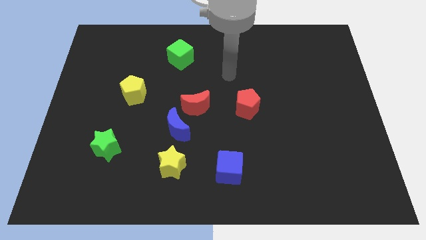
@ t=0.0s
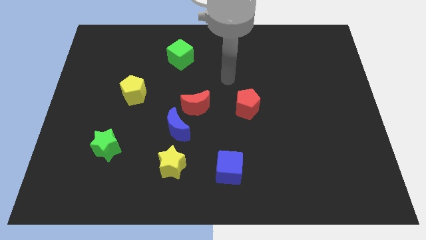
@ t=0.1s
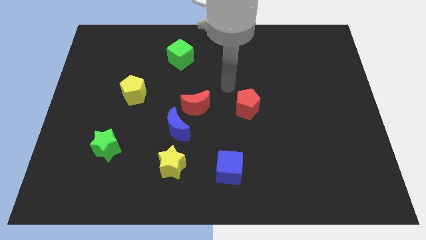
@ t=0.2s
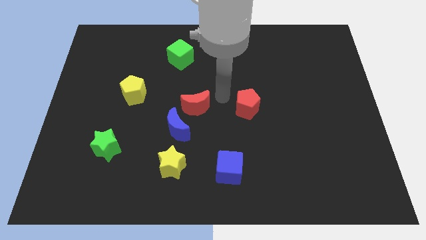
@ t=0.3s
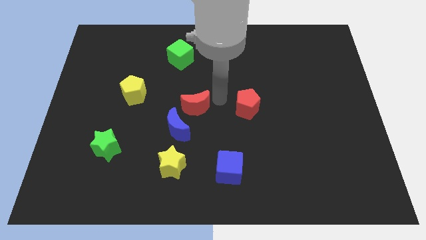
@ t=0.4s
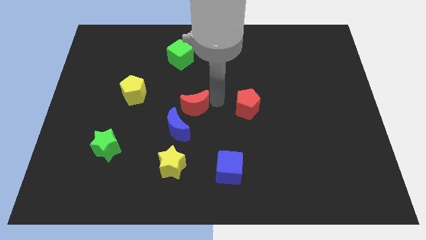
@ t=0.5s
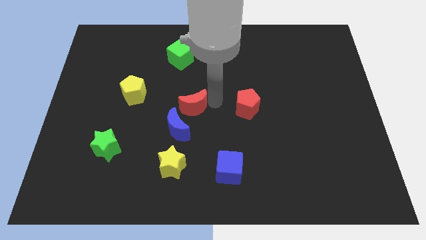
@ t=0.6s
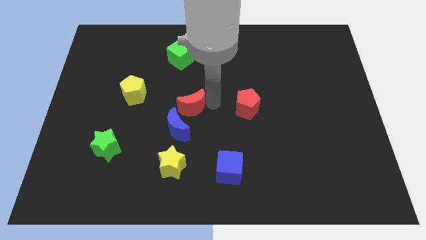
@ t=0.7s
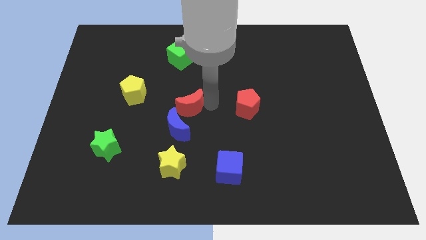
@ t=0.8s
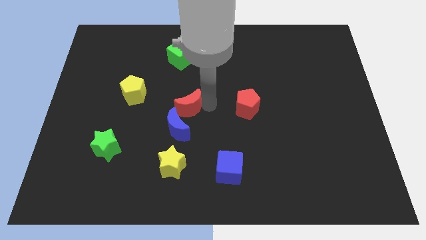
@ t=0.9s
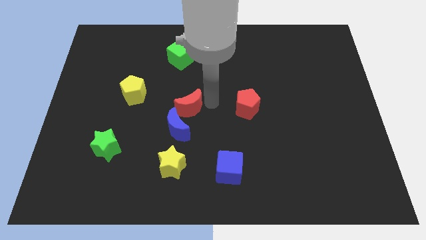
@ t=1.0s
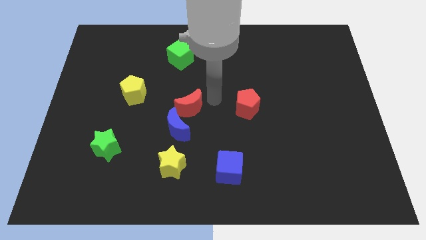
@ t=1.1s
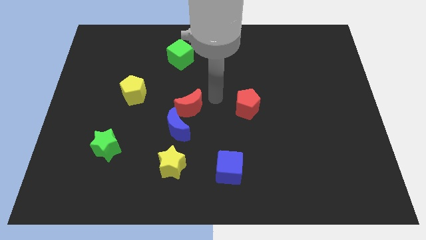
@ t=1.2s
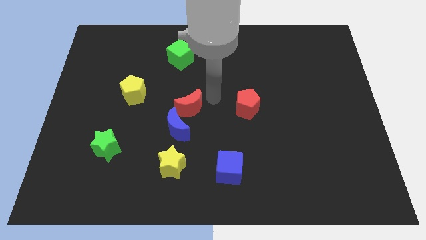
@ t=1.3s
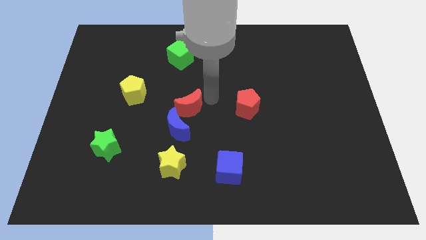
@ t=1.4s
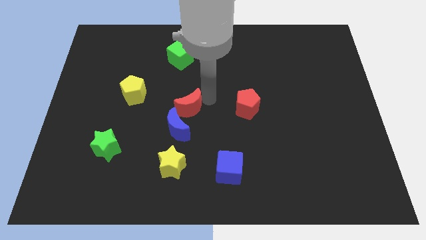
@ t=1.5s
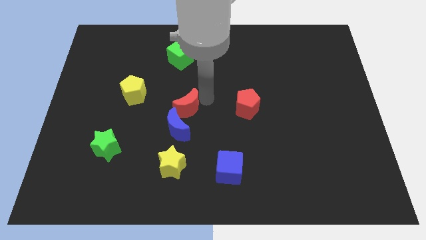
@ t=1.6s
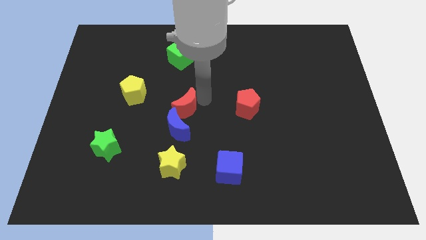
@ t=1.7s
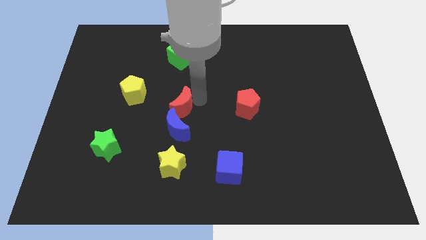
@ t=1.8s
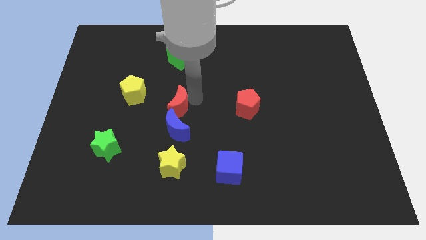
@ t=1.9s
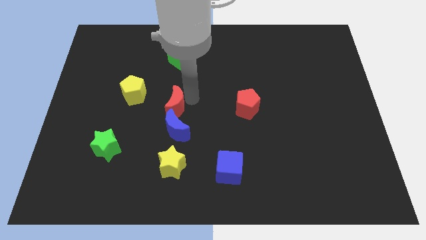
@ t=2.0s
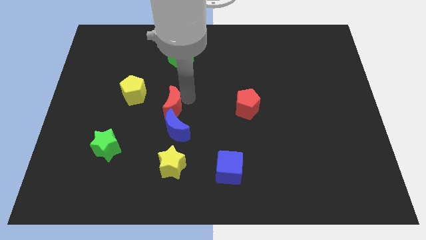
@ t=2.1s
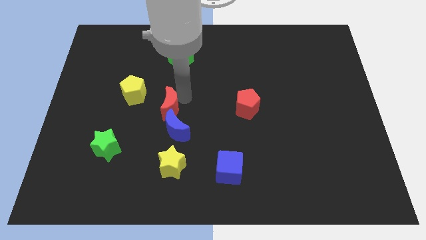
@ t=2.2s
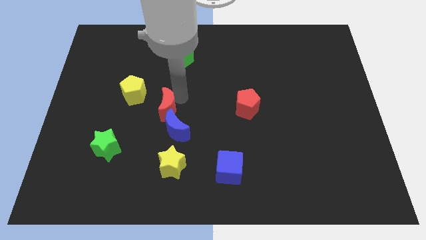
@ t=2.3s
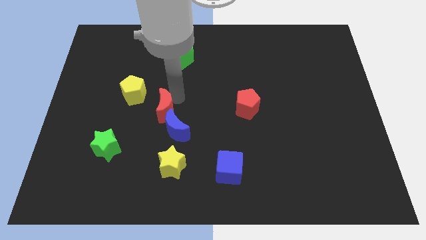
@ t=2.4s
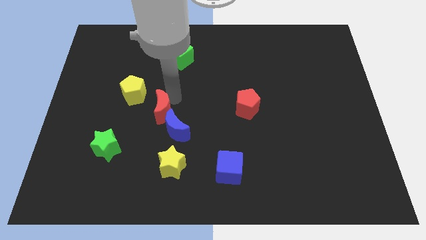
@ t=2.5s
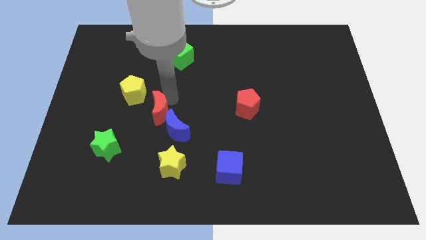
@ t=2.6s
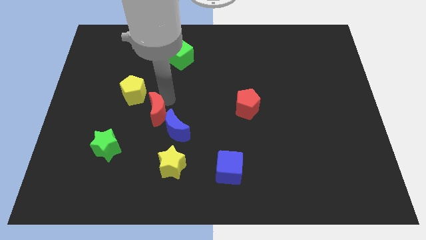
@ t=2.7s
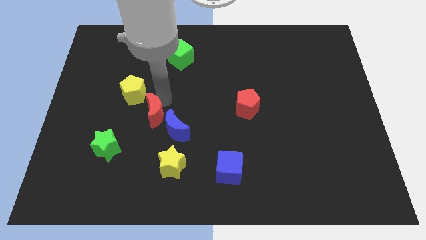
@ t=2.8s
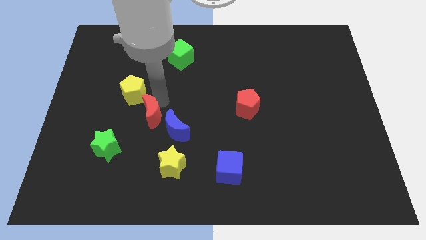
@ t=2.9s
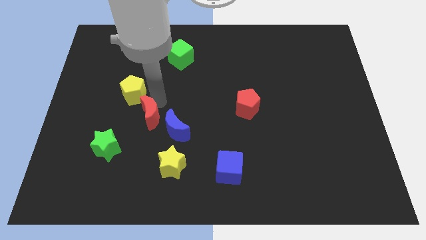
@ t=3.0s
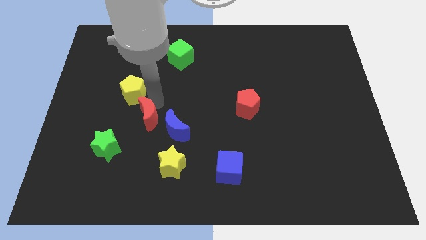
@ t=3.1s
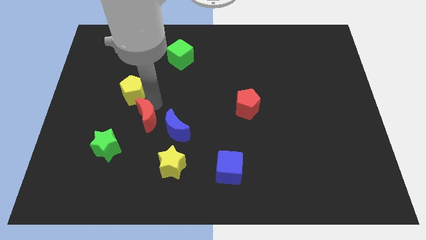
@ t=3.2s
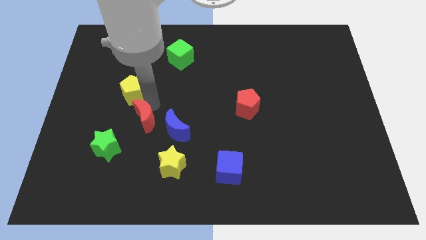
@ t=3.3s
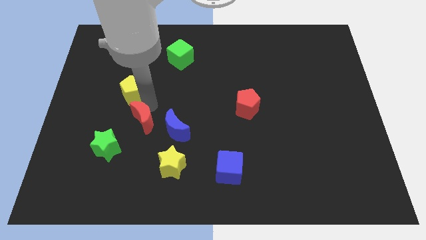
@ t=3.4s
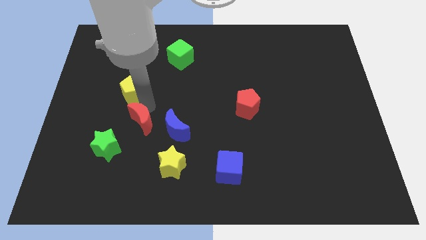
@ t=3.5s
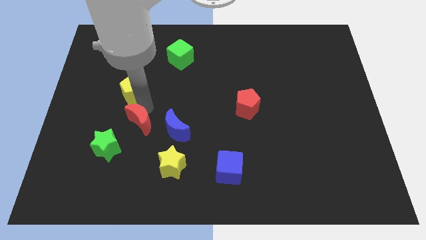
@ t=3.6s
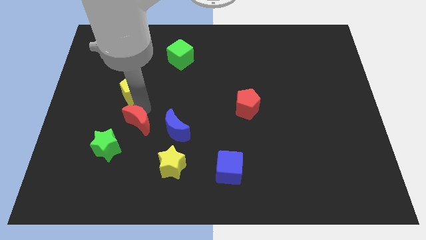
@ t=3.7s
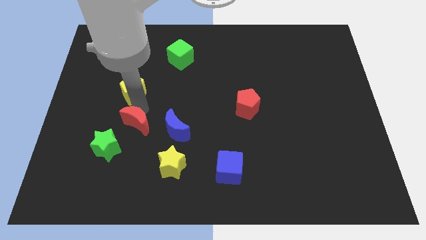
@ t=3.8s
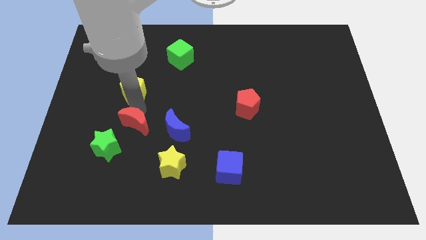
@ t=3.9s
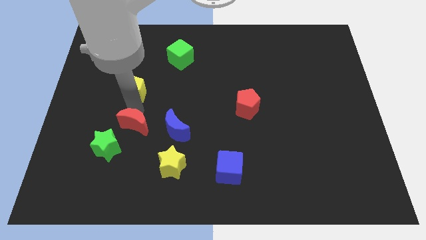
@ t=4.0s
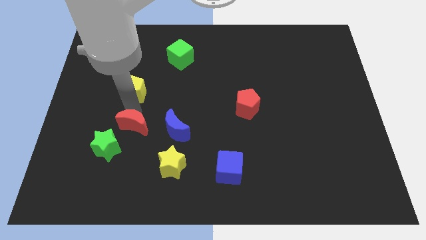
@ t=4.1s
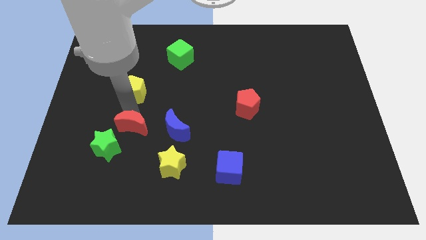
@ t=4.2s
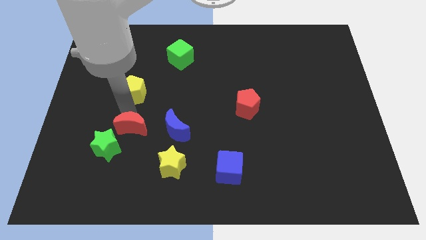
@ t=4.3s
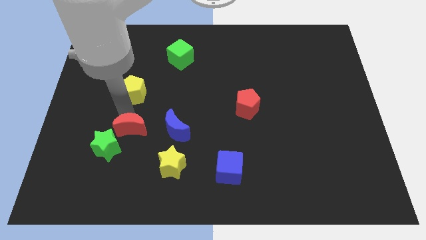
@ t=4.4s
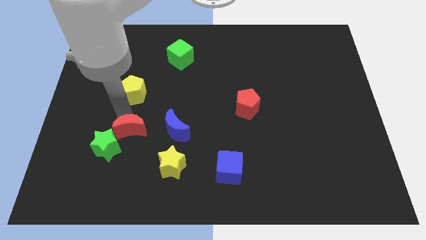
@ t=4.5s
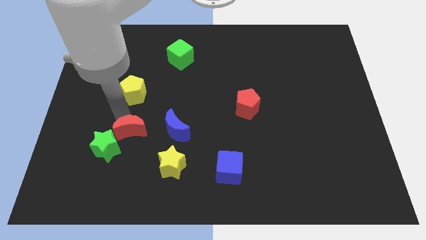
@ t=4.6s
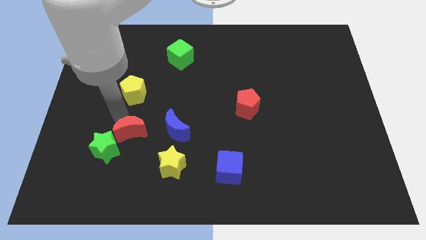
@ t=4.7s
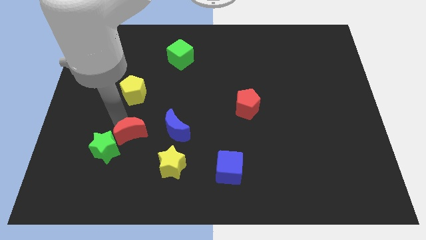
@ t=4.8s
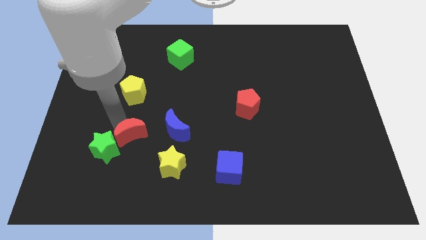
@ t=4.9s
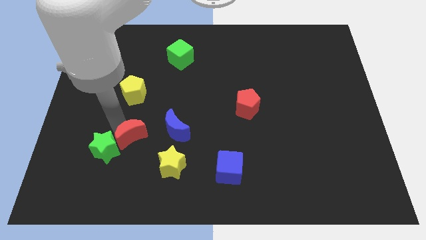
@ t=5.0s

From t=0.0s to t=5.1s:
put the red moon next to the green star

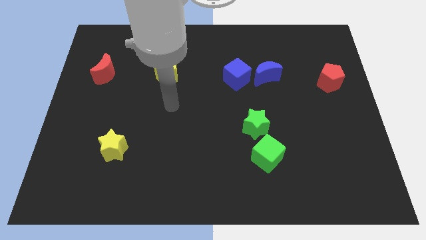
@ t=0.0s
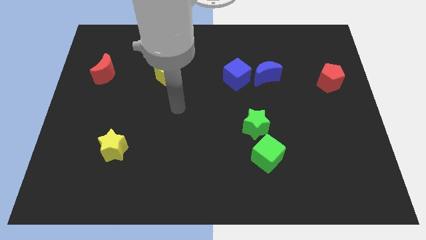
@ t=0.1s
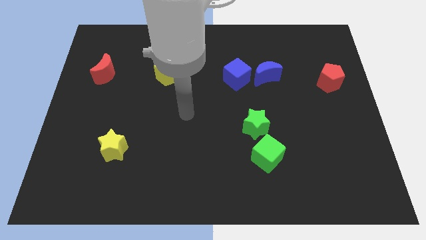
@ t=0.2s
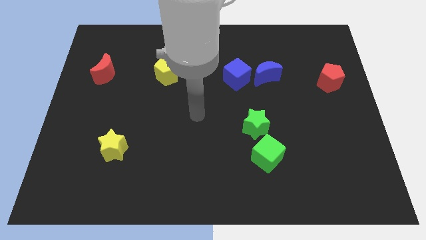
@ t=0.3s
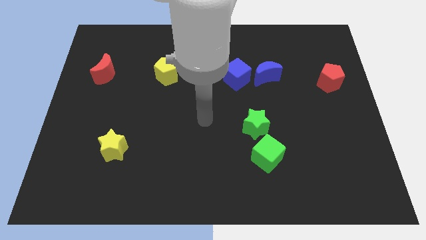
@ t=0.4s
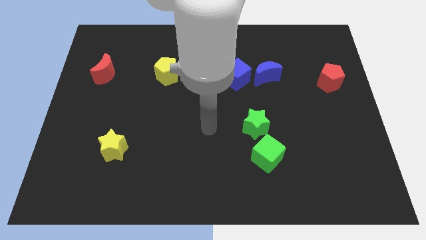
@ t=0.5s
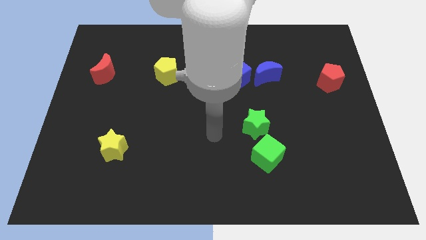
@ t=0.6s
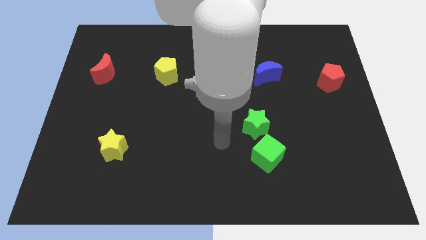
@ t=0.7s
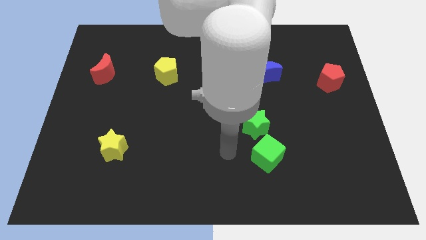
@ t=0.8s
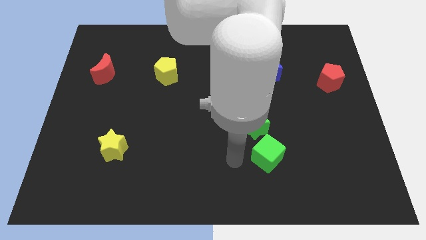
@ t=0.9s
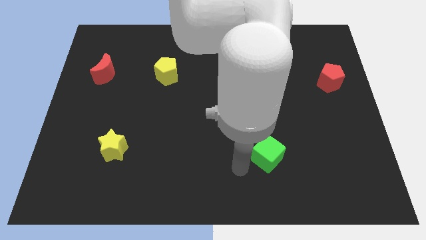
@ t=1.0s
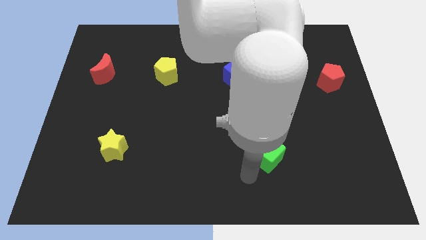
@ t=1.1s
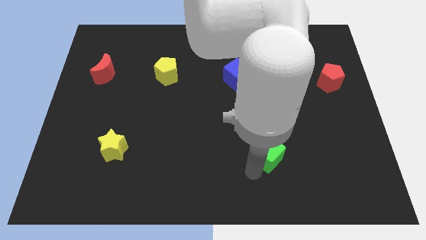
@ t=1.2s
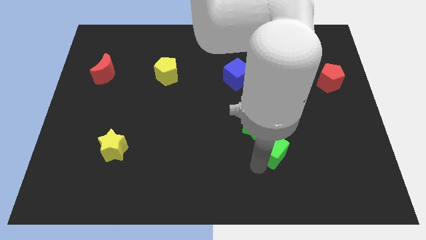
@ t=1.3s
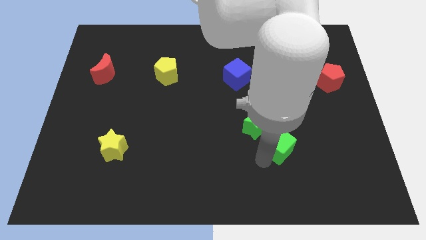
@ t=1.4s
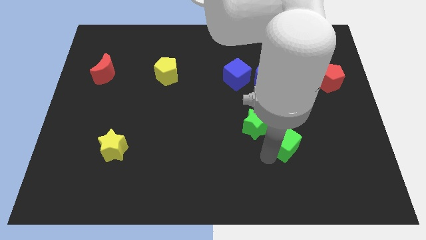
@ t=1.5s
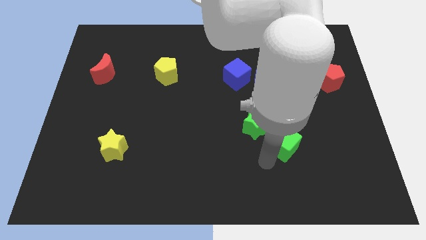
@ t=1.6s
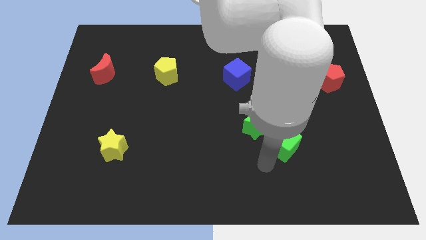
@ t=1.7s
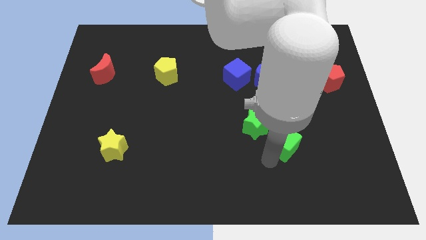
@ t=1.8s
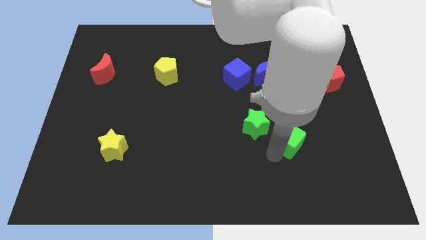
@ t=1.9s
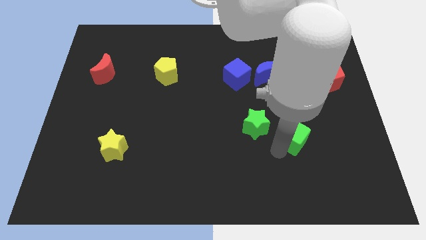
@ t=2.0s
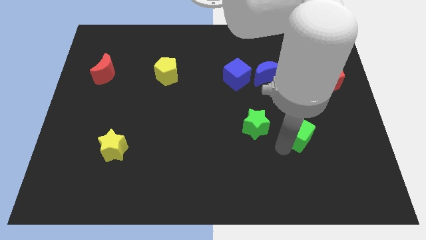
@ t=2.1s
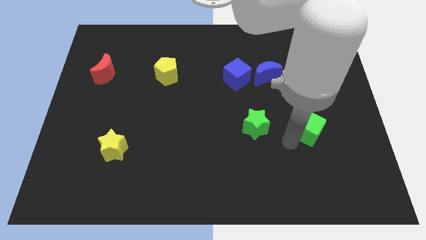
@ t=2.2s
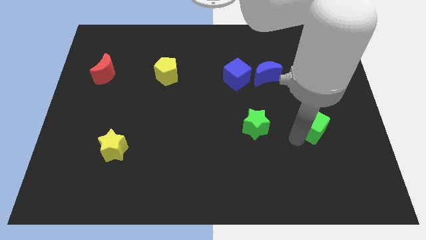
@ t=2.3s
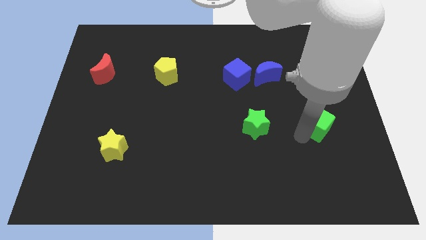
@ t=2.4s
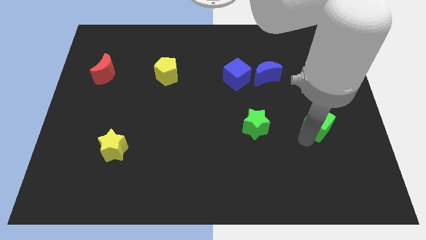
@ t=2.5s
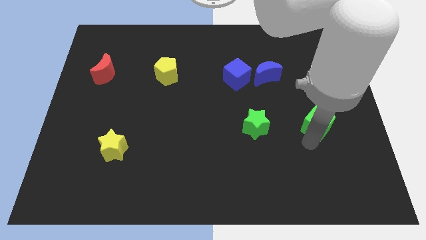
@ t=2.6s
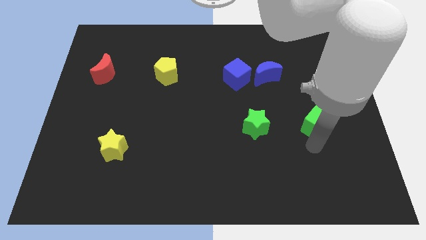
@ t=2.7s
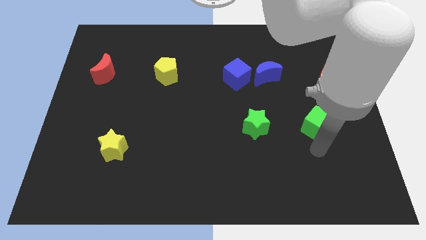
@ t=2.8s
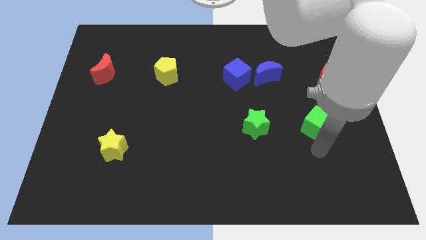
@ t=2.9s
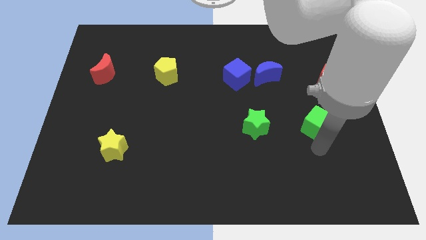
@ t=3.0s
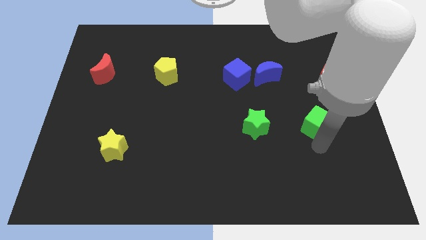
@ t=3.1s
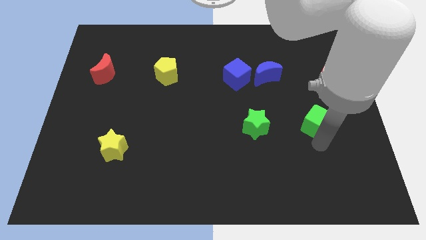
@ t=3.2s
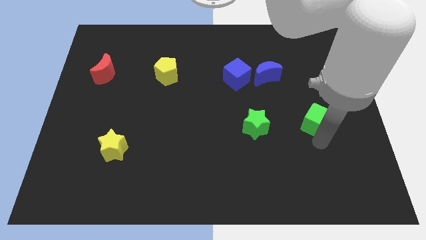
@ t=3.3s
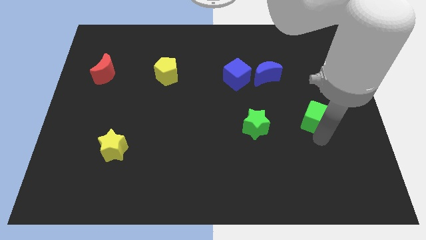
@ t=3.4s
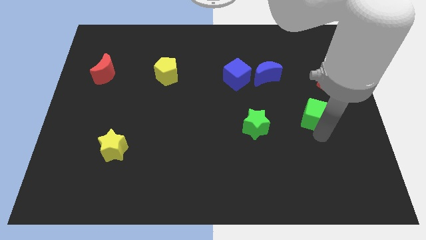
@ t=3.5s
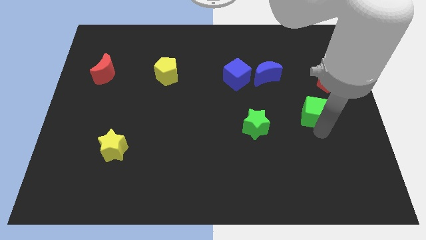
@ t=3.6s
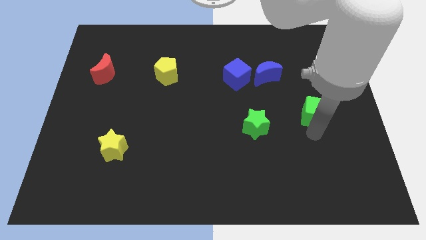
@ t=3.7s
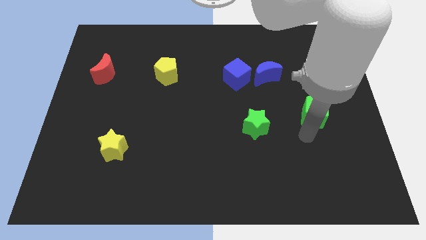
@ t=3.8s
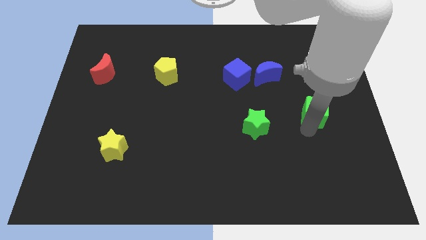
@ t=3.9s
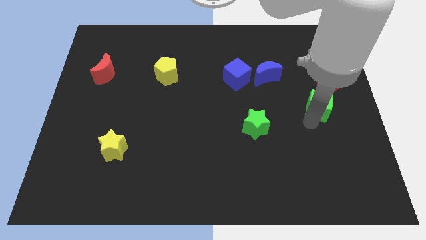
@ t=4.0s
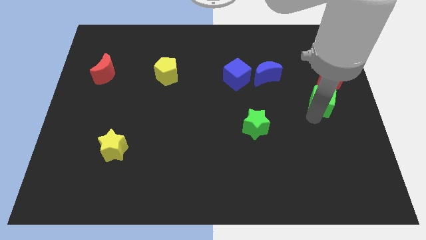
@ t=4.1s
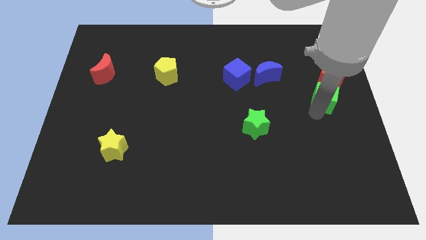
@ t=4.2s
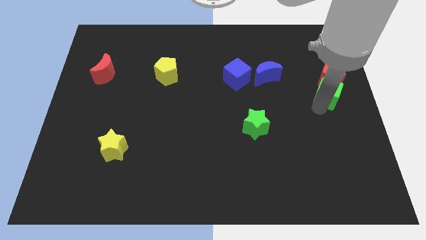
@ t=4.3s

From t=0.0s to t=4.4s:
slide the green cube close to the red pentagon
